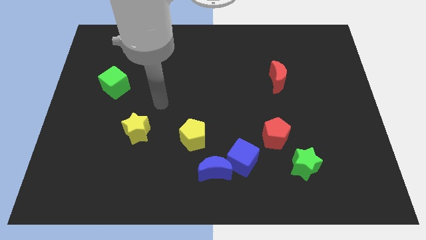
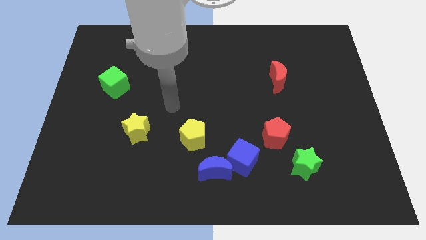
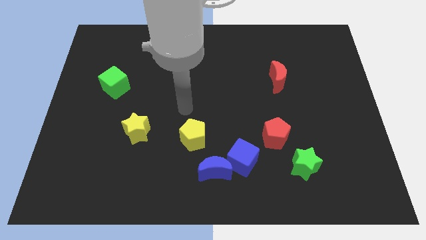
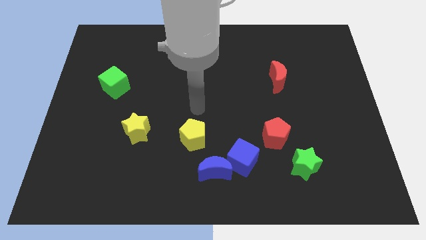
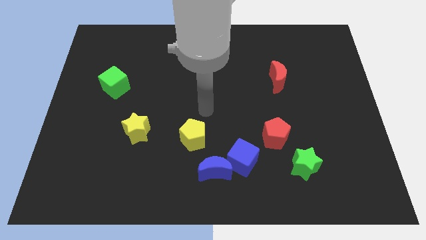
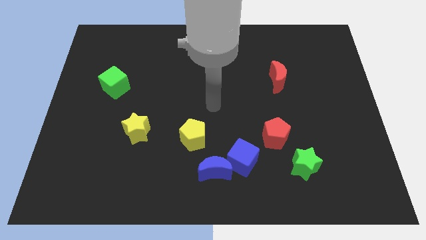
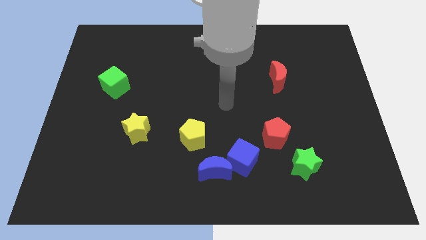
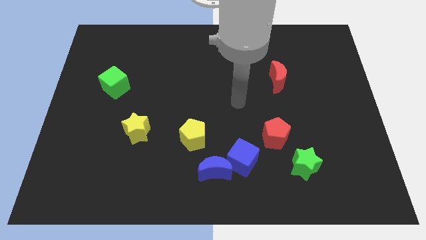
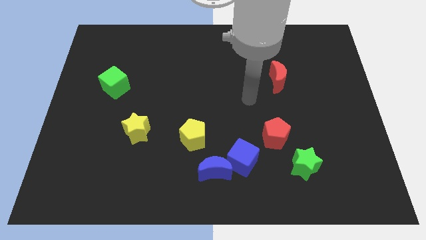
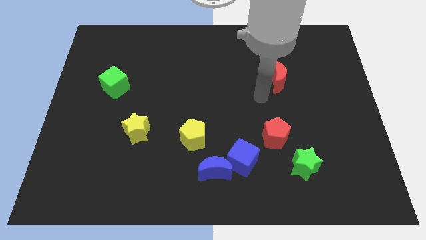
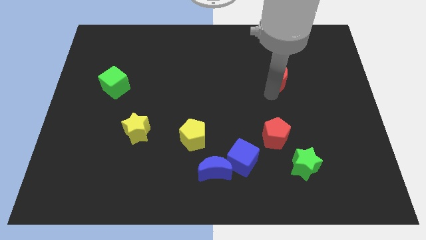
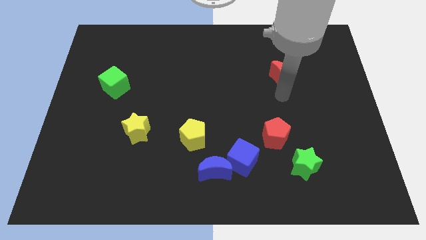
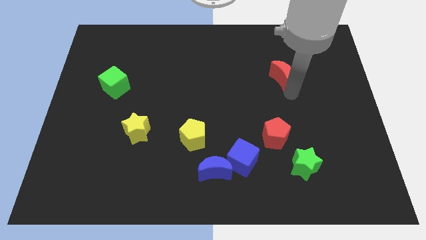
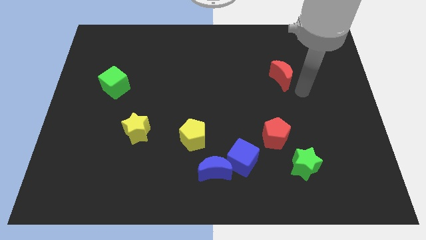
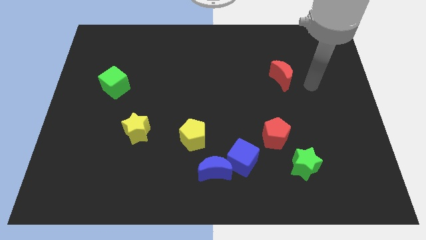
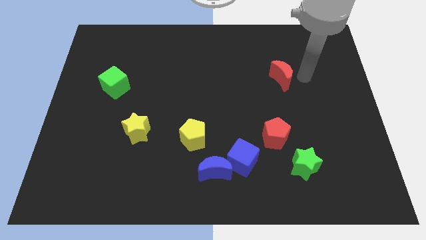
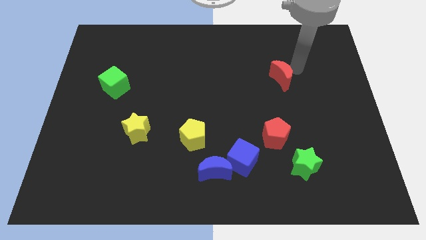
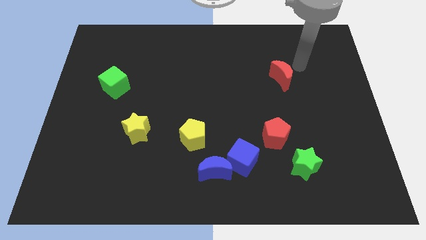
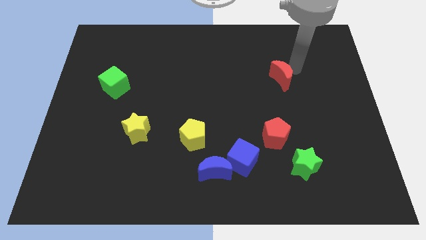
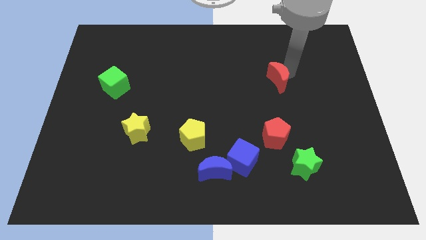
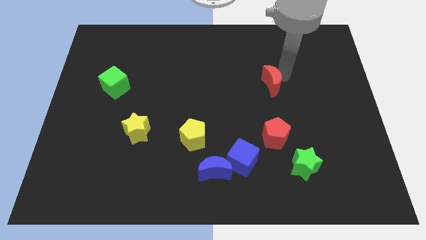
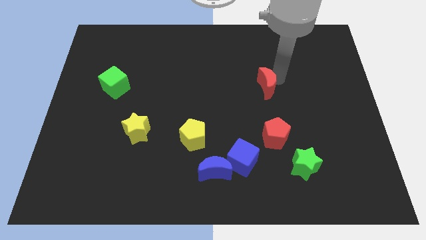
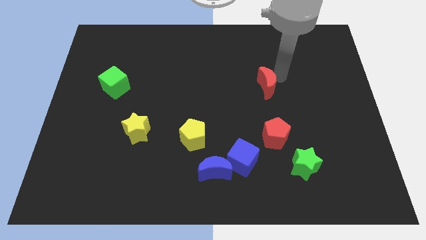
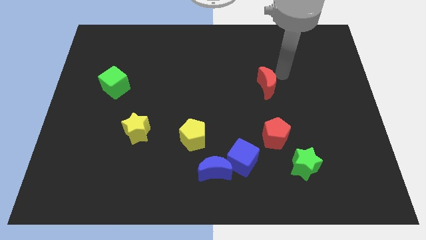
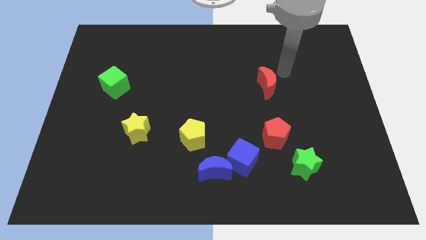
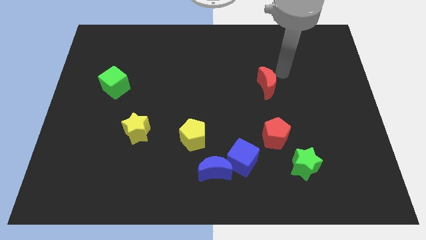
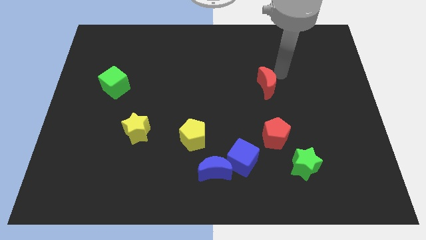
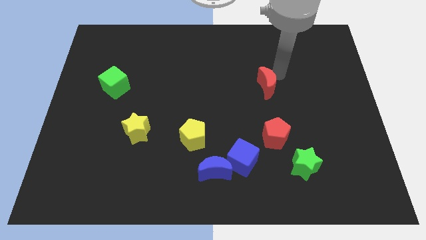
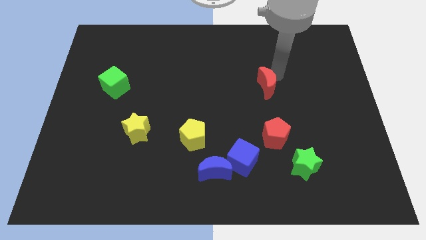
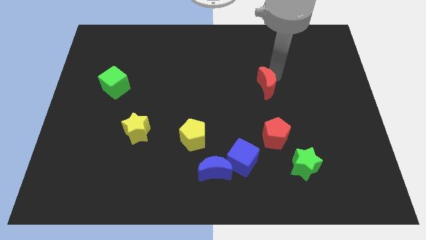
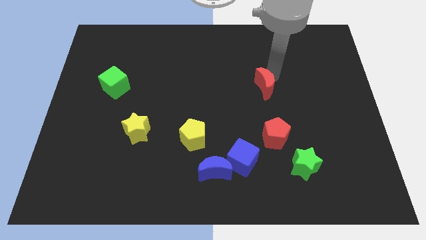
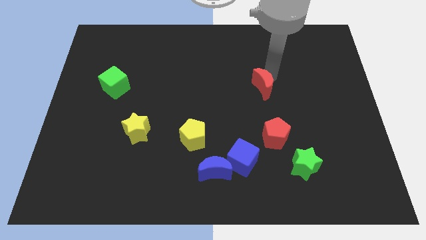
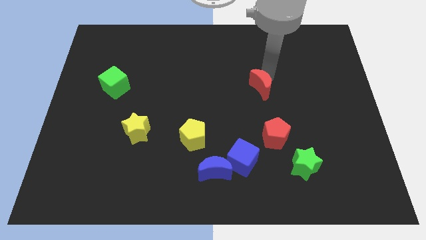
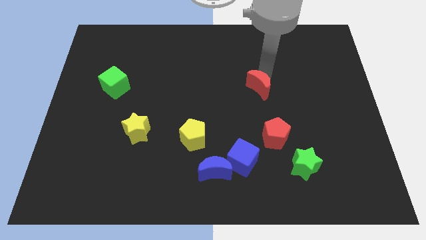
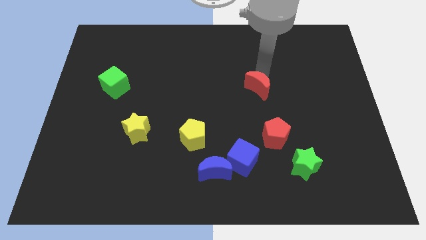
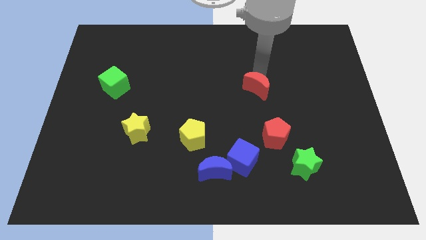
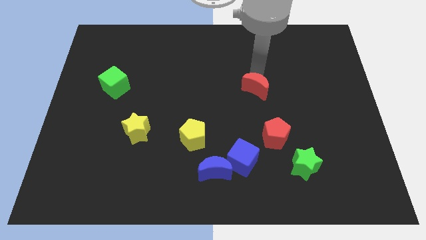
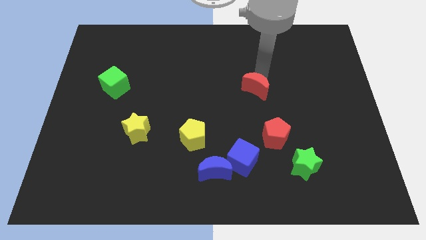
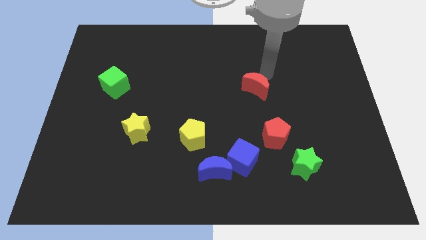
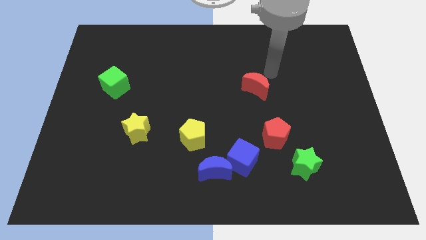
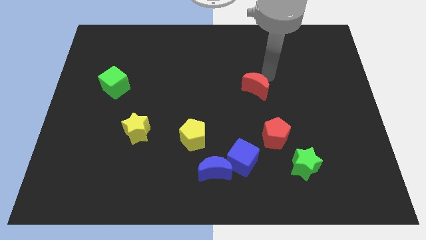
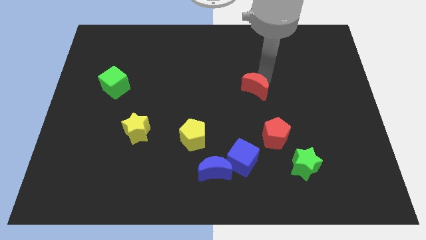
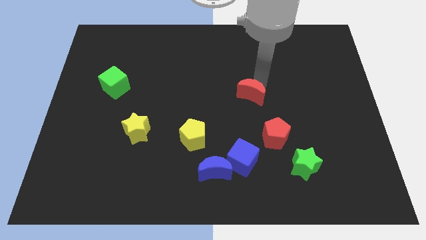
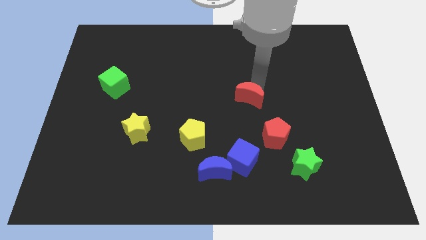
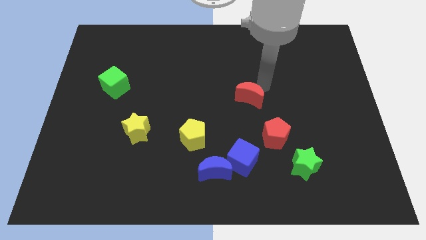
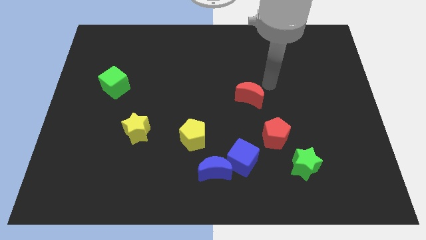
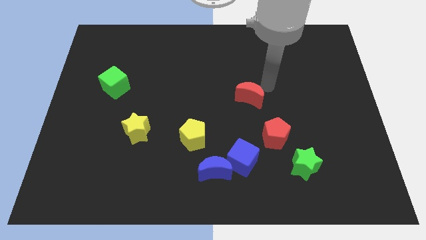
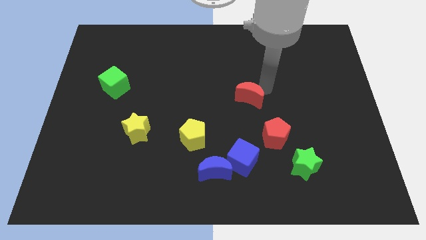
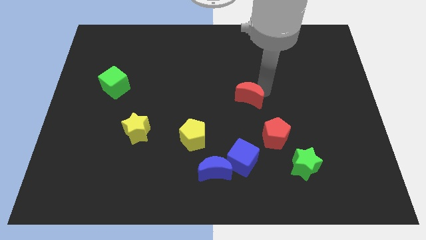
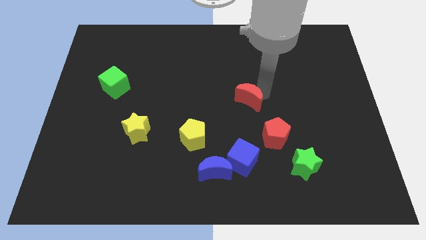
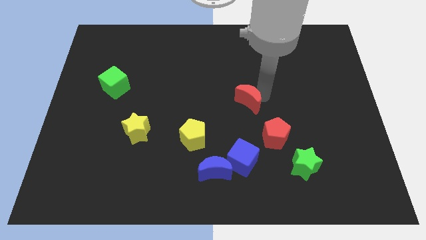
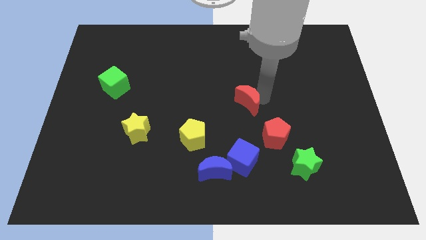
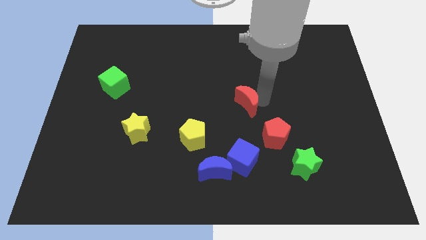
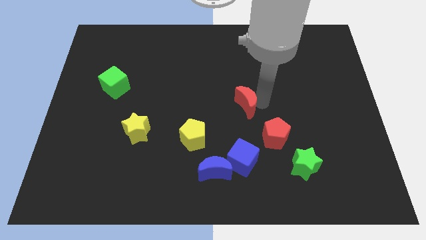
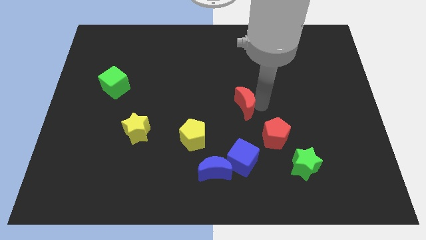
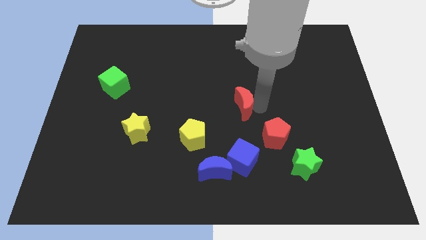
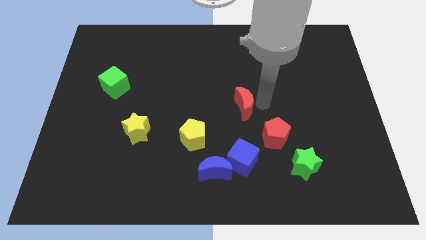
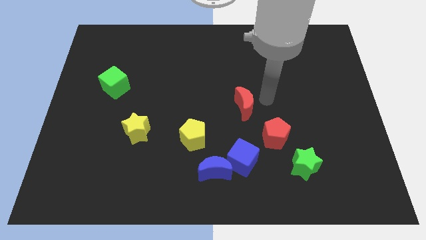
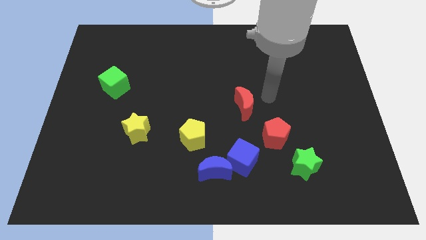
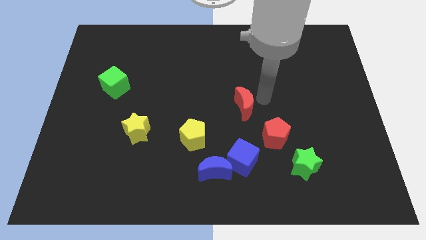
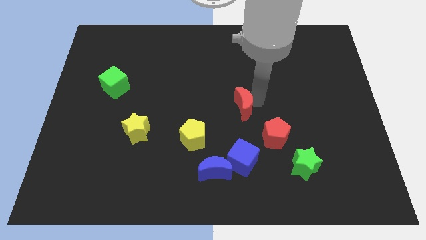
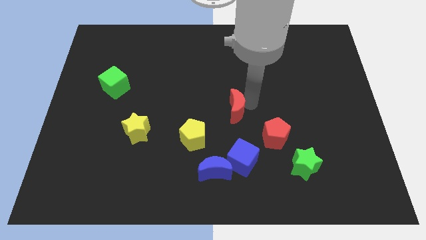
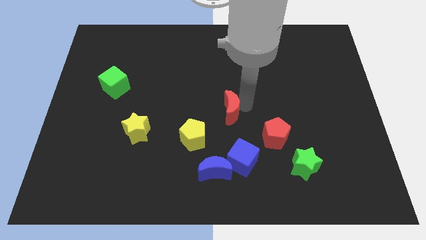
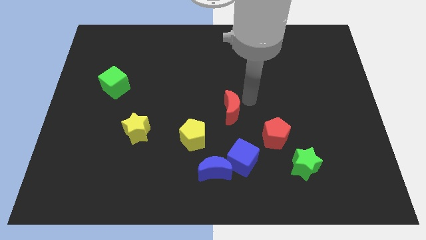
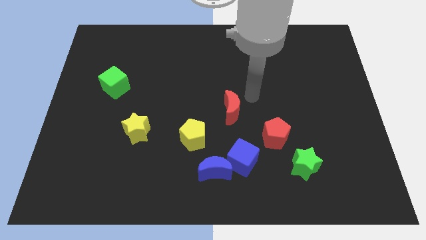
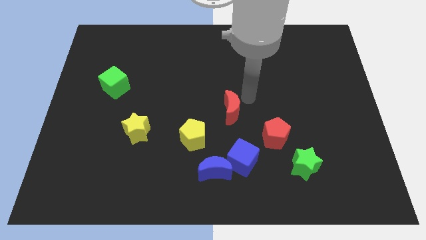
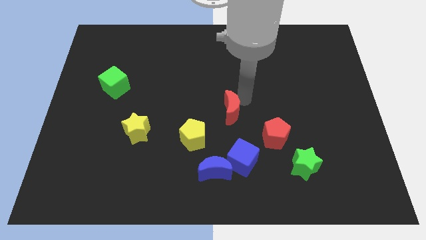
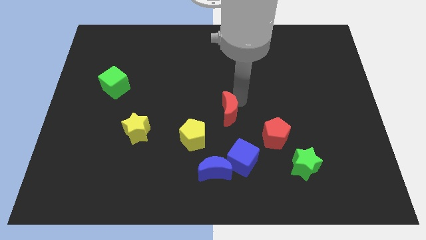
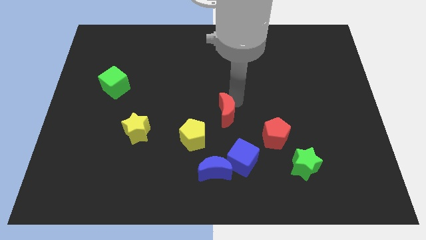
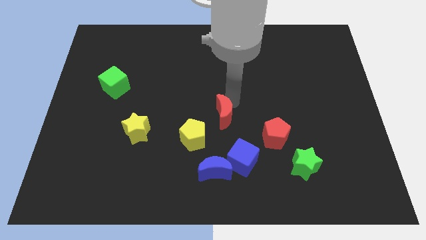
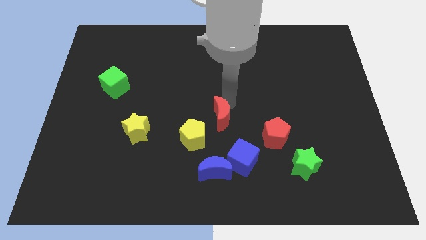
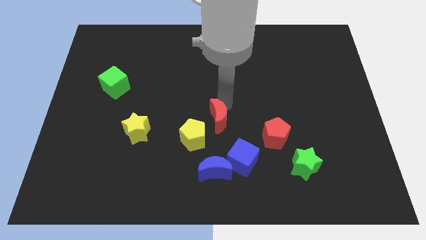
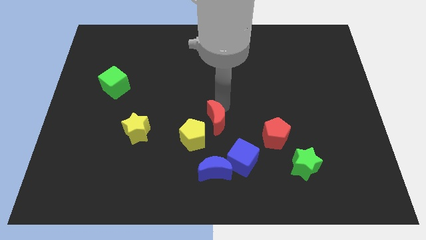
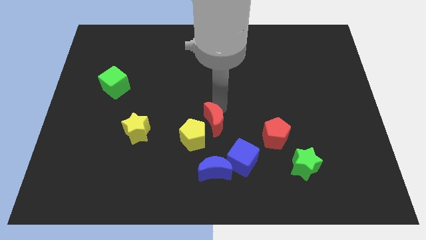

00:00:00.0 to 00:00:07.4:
put the red moon to the yellow pentagon
